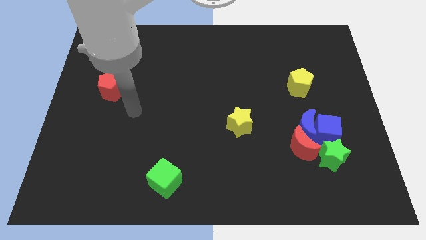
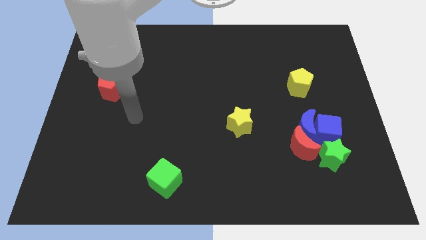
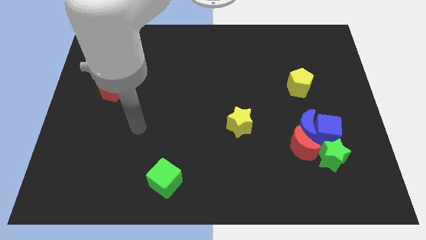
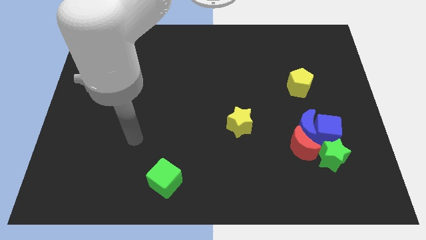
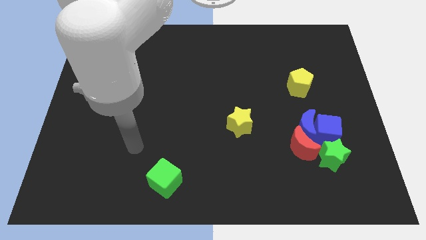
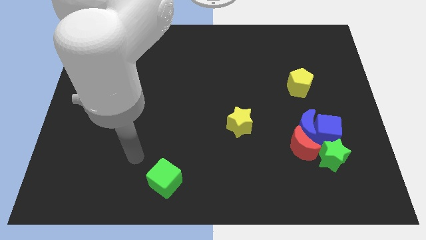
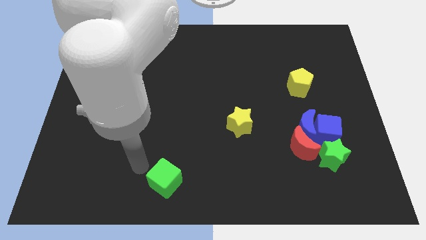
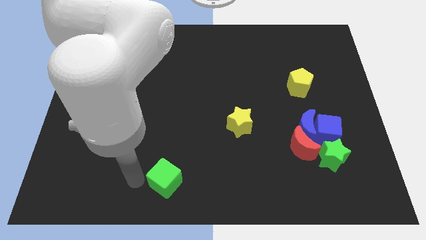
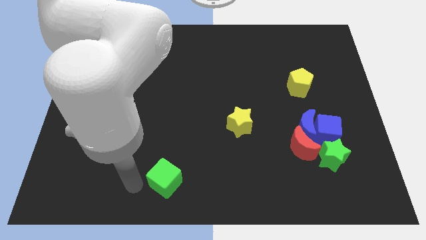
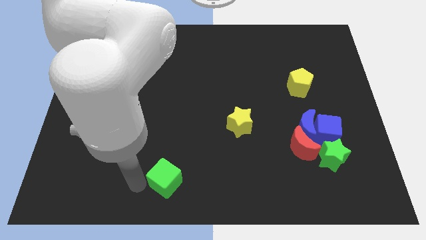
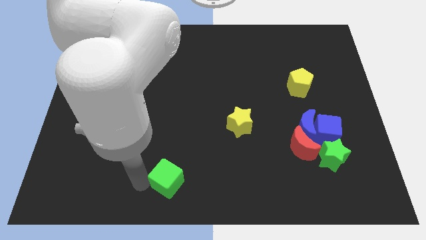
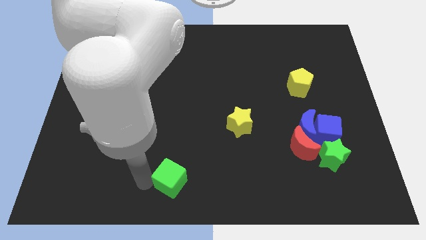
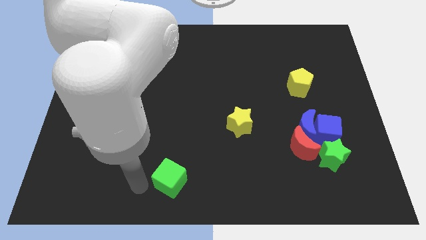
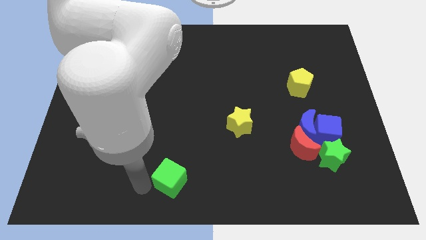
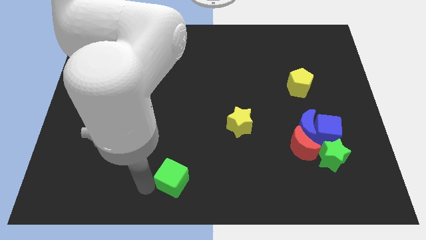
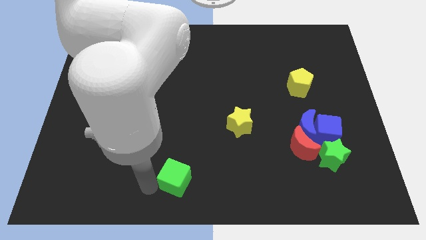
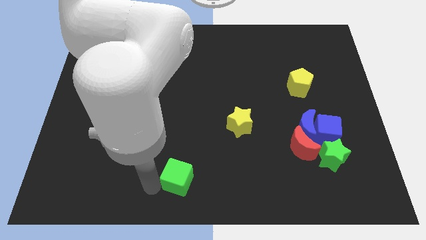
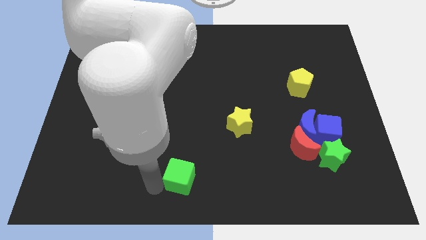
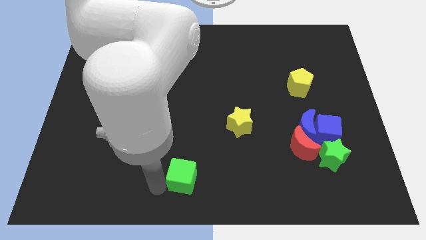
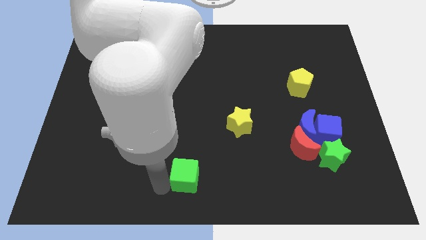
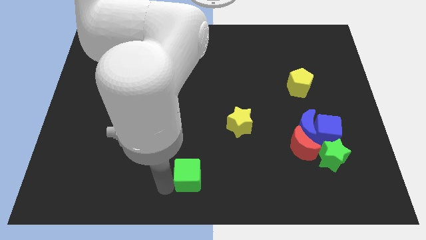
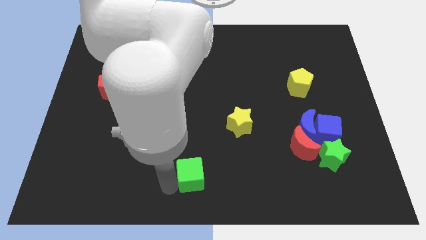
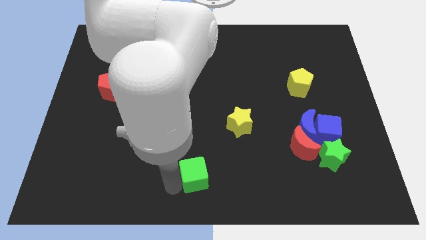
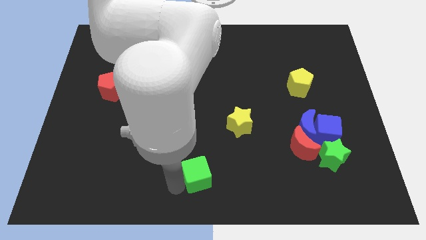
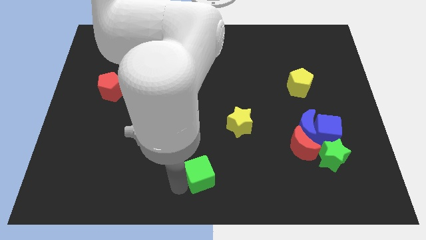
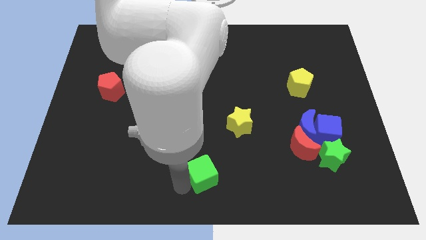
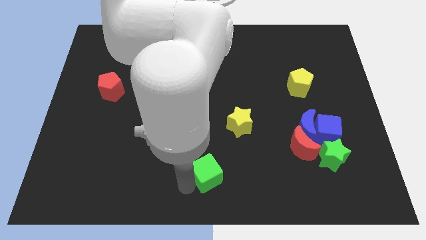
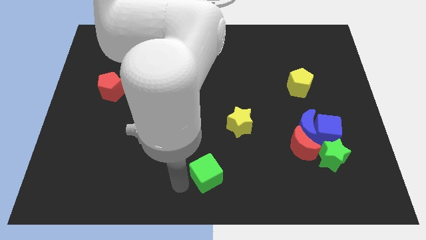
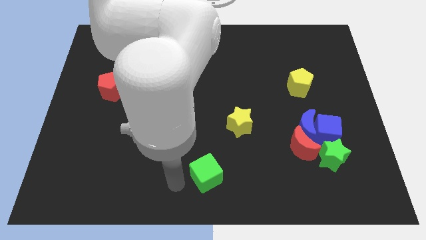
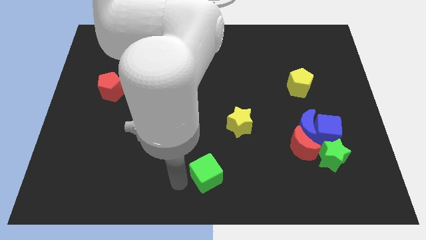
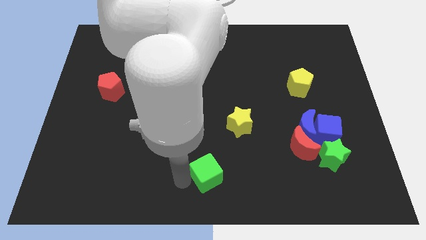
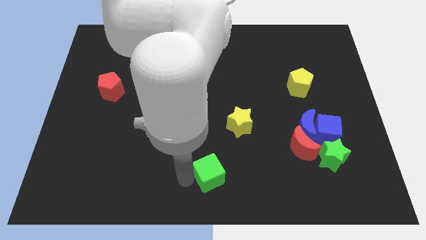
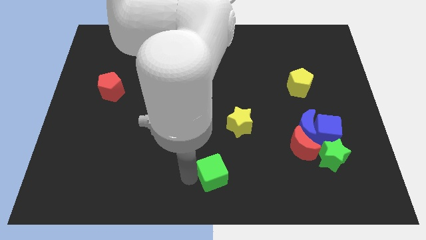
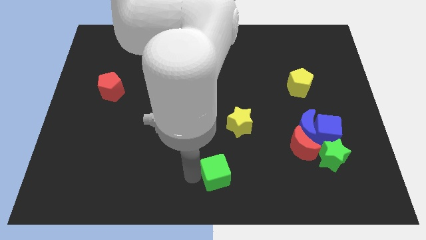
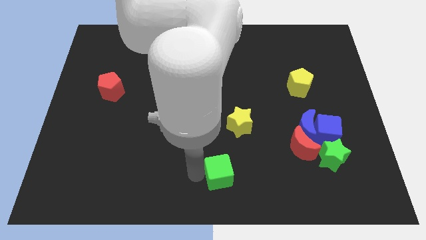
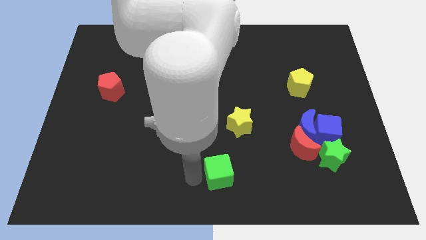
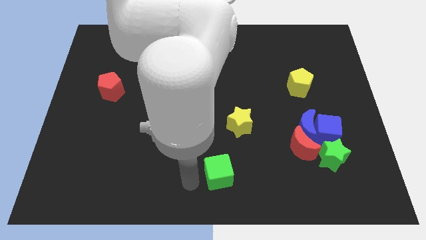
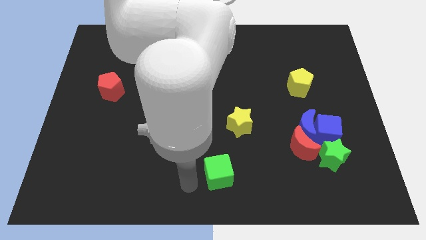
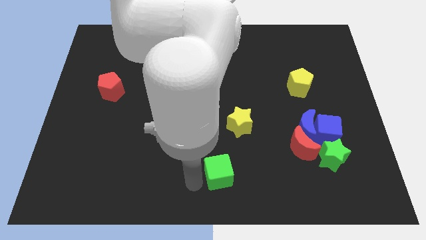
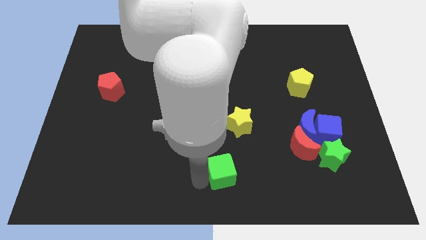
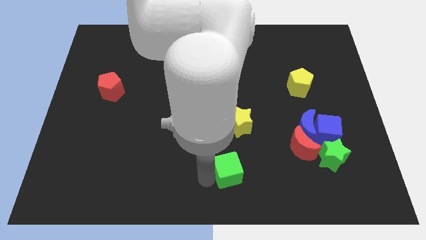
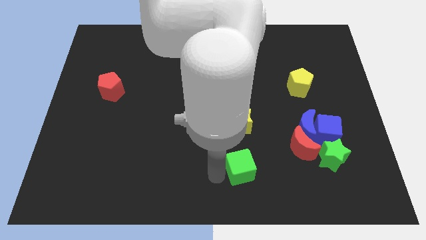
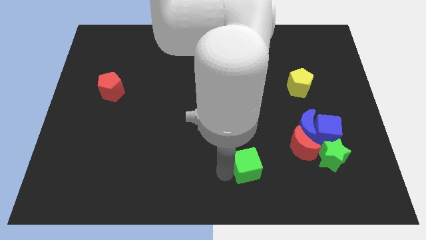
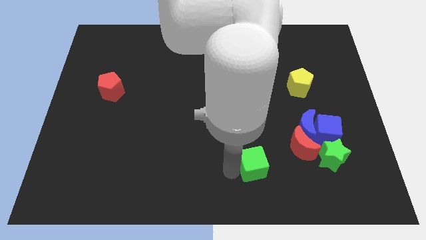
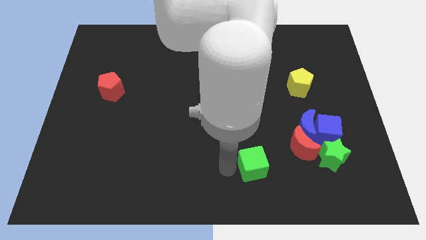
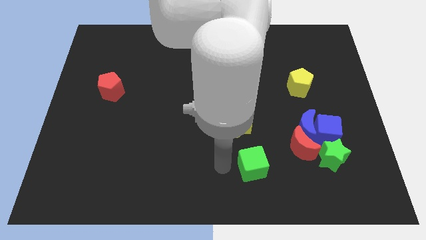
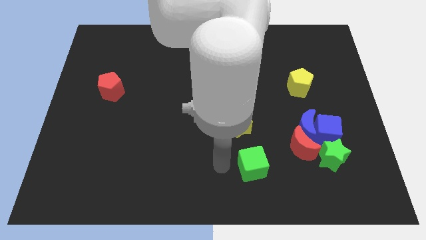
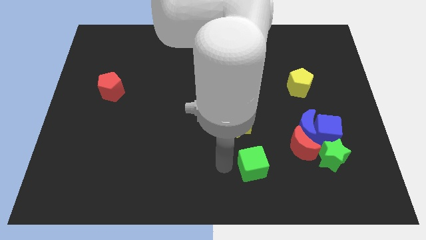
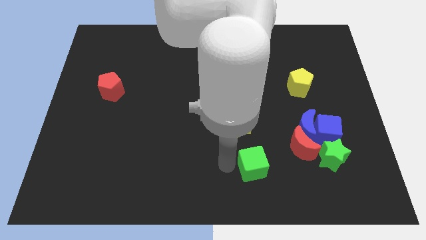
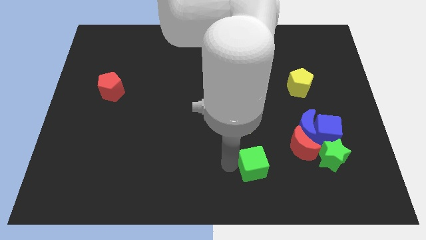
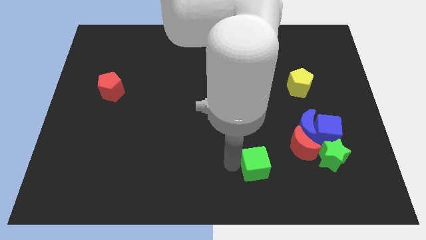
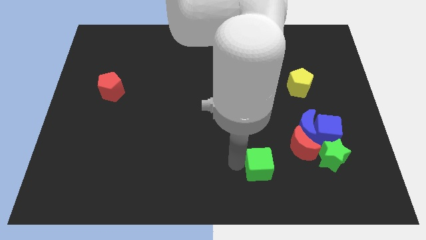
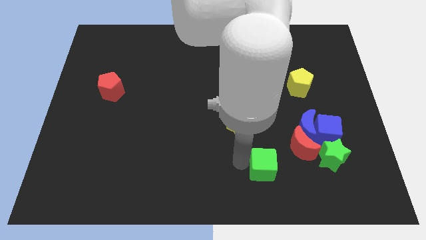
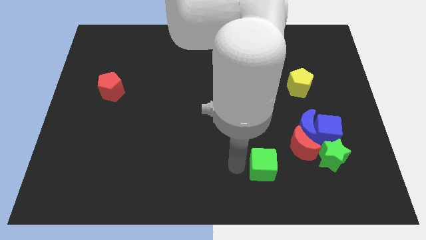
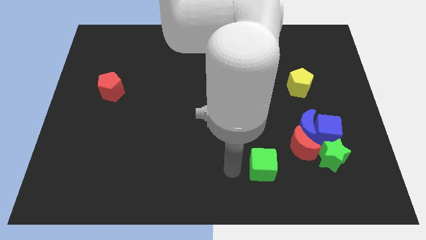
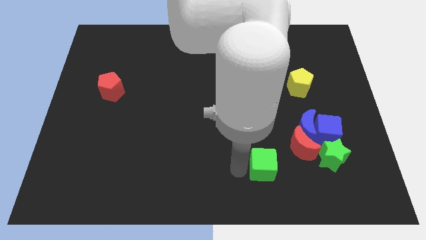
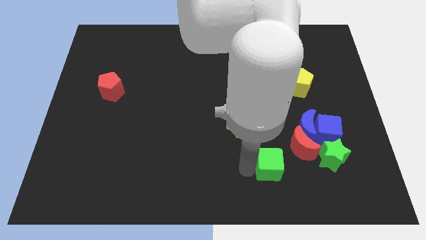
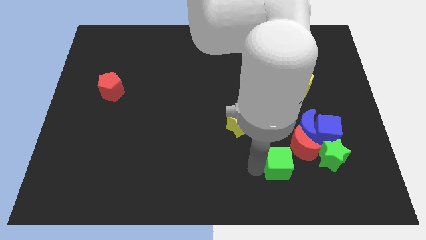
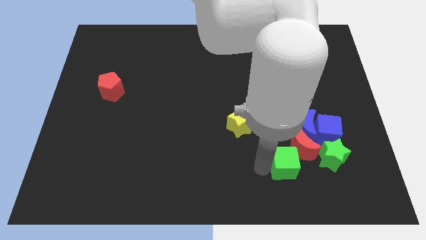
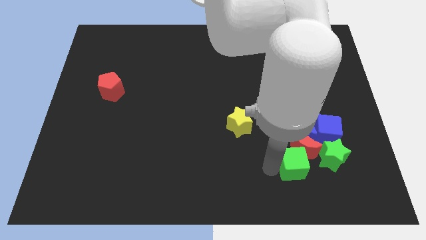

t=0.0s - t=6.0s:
push the green cube diagonally down and to the left of the blue cube
